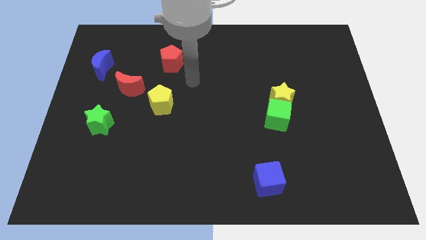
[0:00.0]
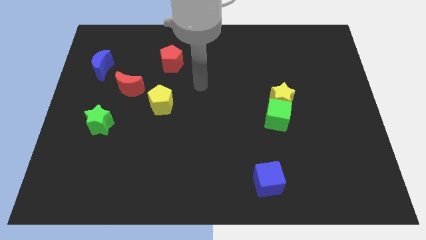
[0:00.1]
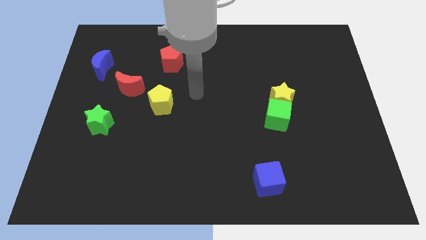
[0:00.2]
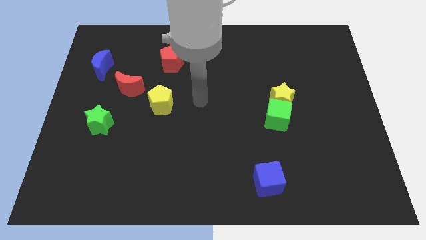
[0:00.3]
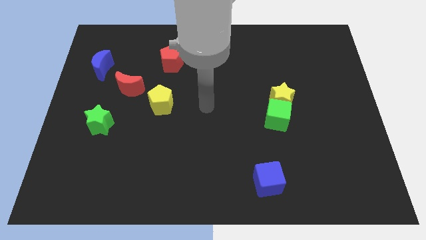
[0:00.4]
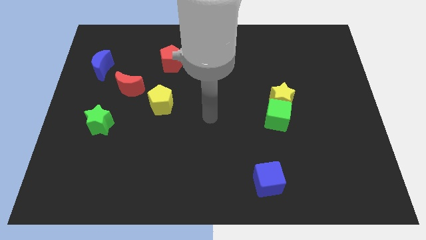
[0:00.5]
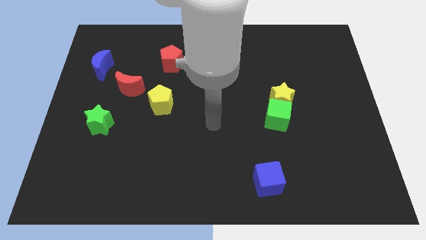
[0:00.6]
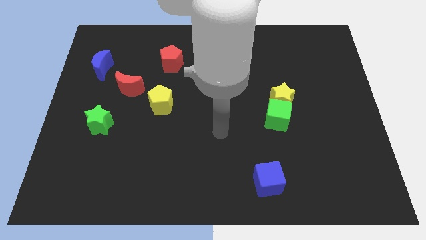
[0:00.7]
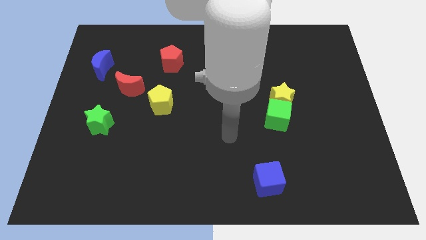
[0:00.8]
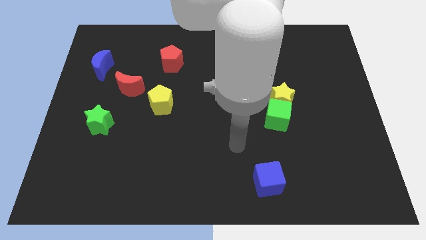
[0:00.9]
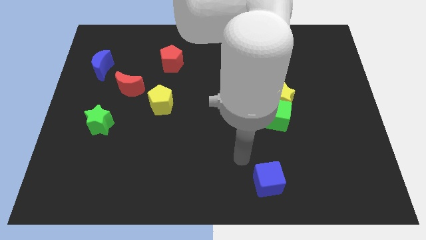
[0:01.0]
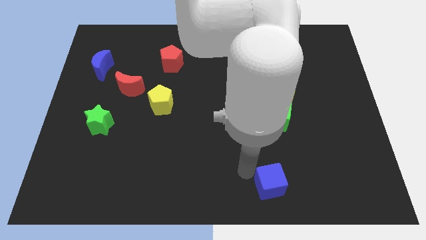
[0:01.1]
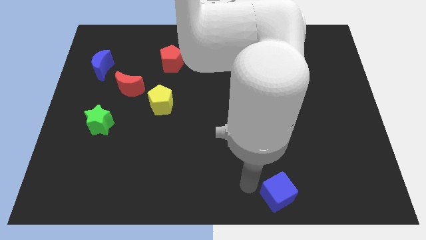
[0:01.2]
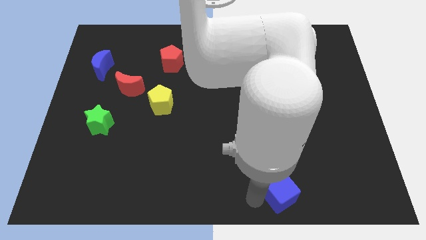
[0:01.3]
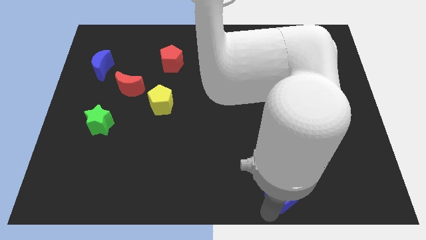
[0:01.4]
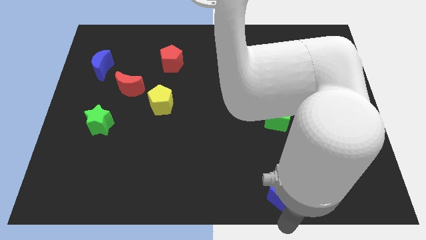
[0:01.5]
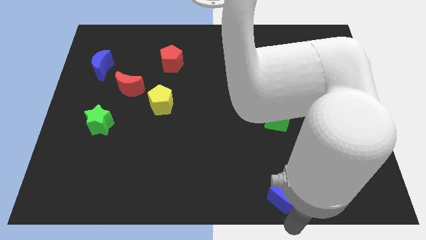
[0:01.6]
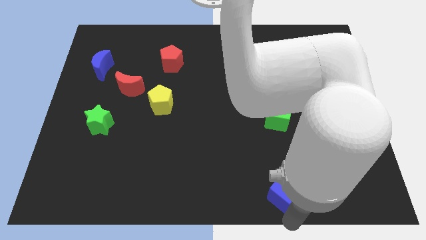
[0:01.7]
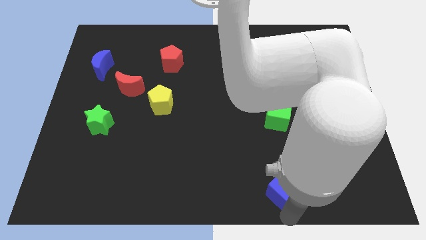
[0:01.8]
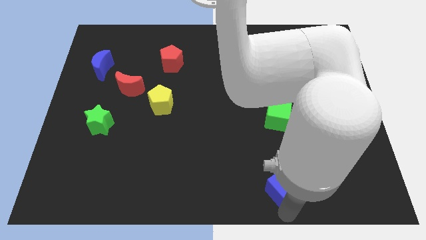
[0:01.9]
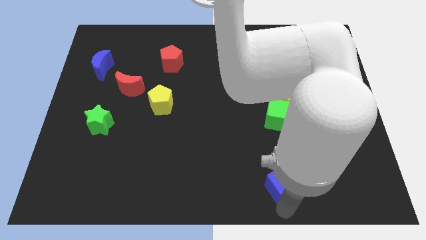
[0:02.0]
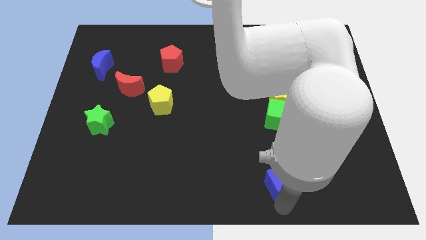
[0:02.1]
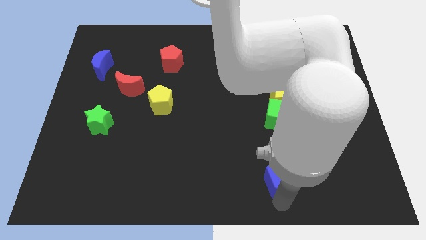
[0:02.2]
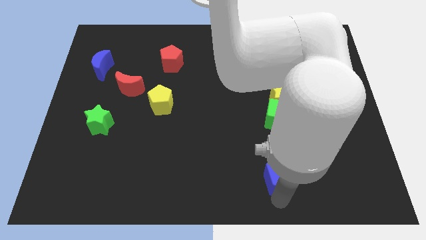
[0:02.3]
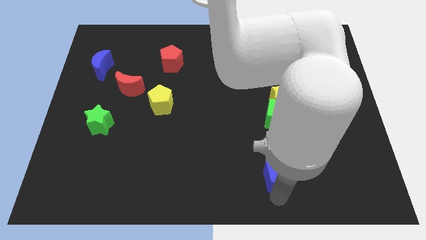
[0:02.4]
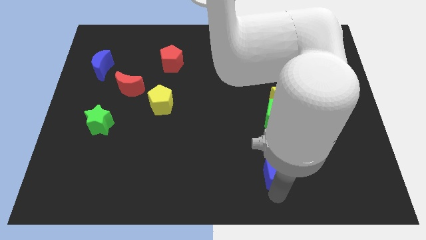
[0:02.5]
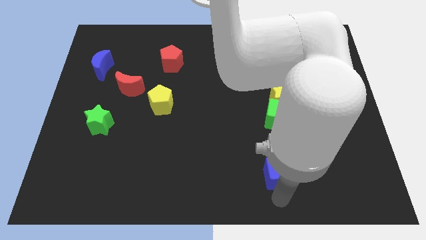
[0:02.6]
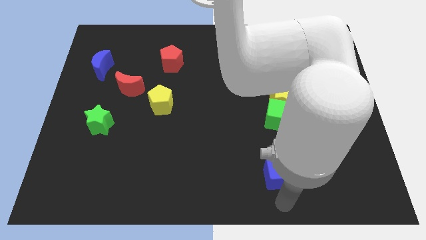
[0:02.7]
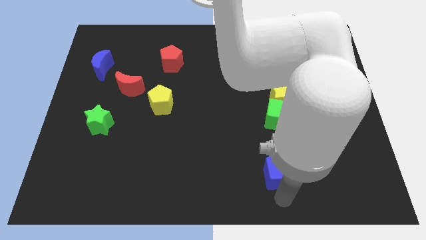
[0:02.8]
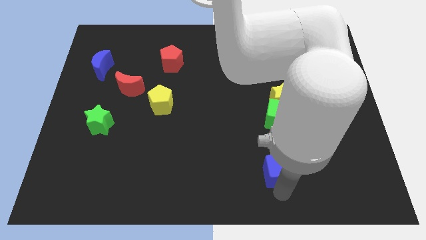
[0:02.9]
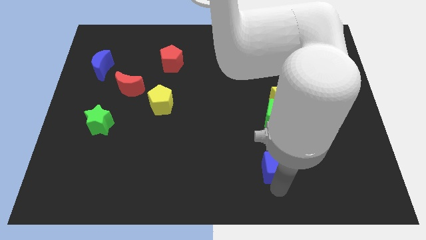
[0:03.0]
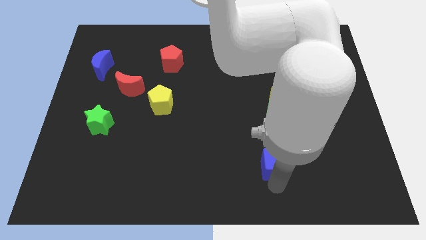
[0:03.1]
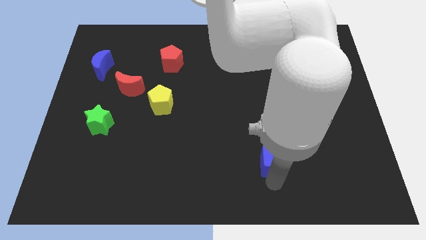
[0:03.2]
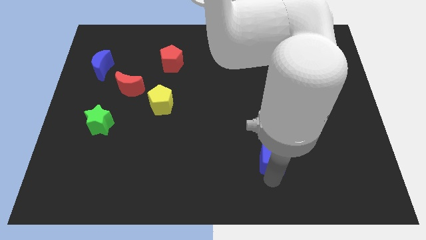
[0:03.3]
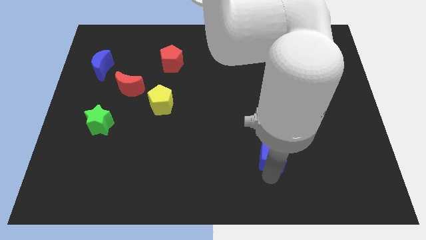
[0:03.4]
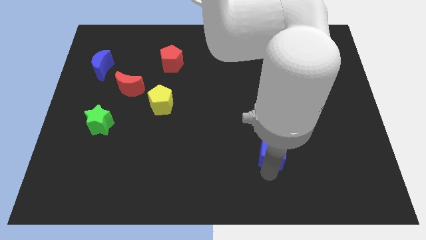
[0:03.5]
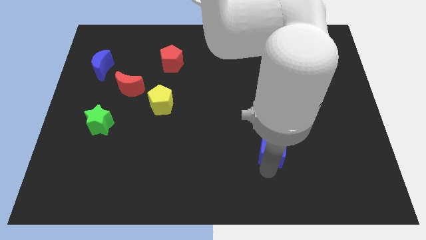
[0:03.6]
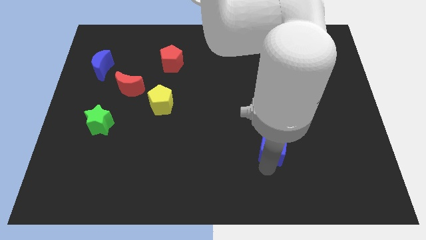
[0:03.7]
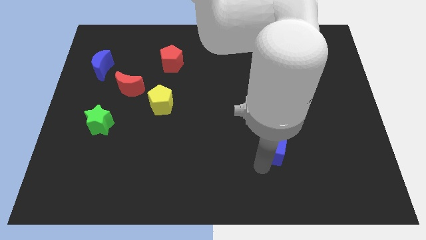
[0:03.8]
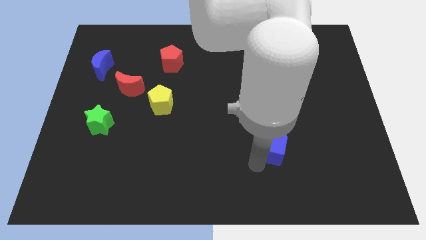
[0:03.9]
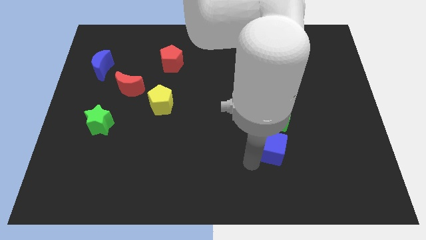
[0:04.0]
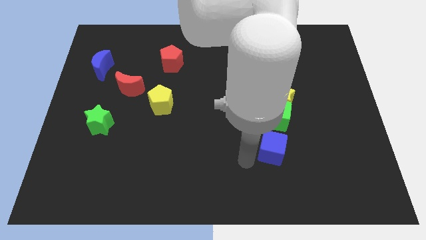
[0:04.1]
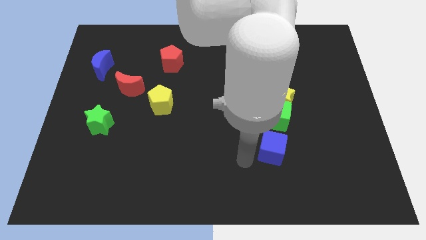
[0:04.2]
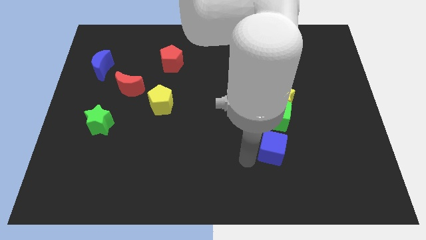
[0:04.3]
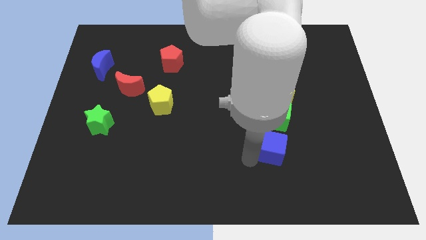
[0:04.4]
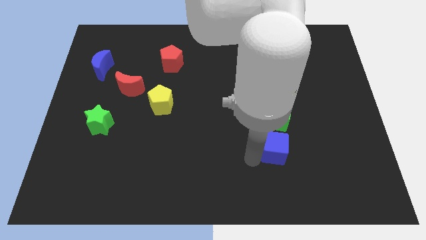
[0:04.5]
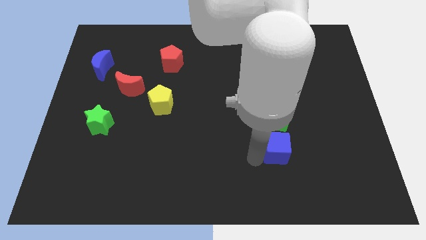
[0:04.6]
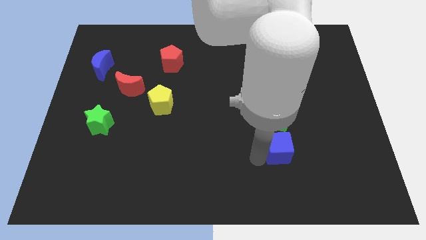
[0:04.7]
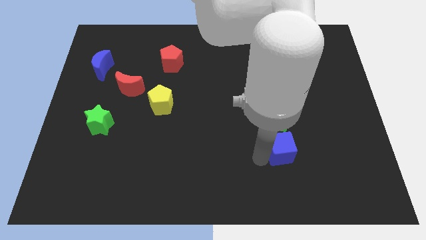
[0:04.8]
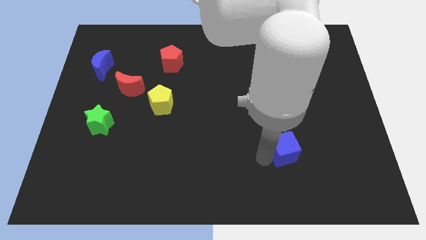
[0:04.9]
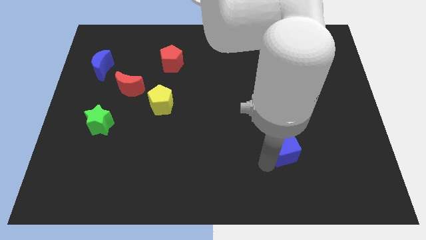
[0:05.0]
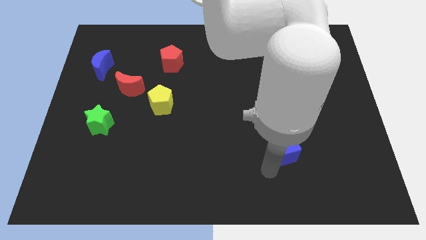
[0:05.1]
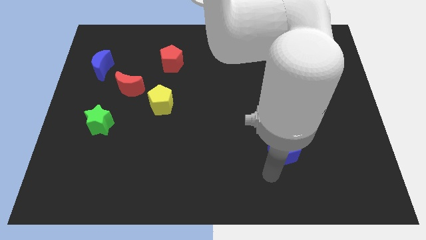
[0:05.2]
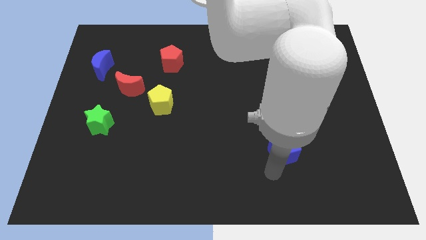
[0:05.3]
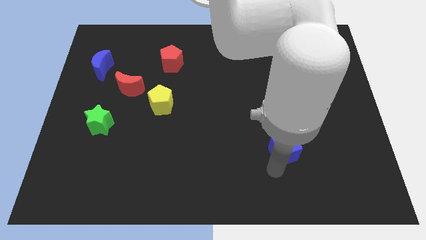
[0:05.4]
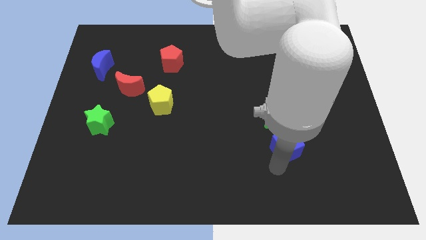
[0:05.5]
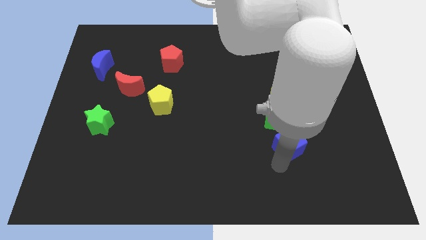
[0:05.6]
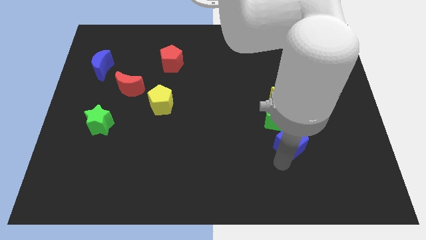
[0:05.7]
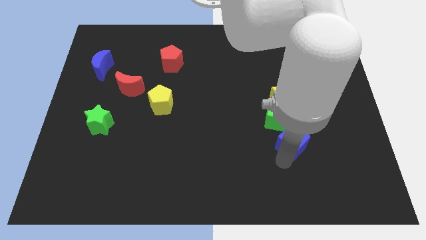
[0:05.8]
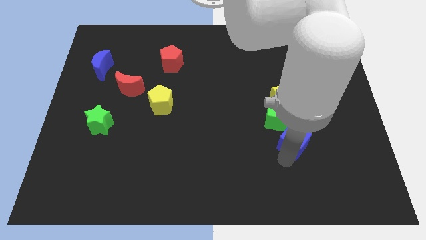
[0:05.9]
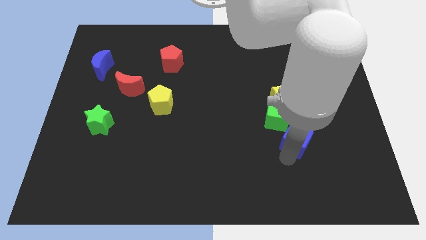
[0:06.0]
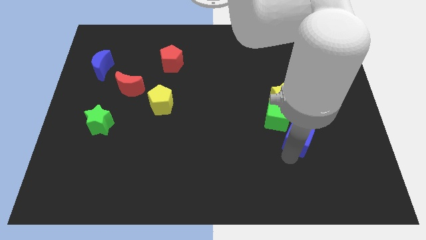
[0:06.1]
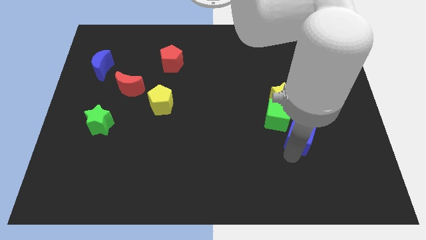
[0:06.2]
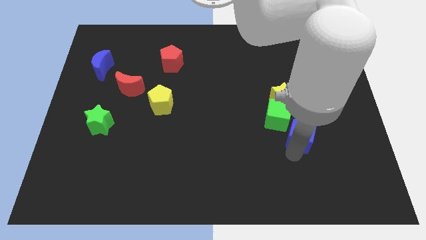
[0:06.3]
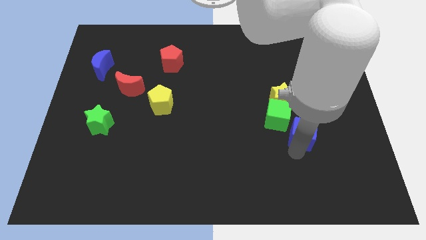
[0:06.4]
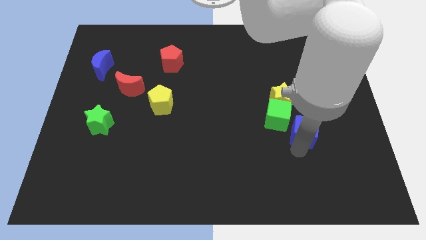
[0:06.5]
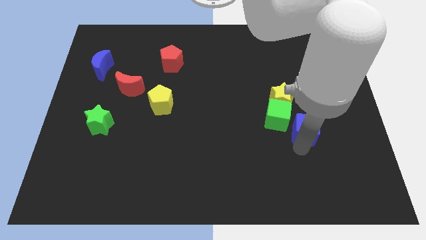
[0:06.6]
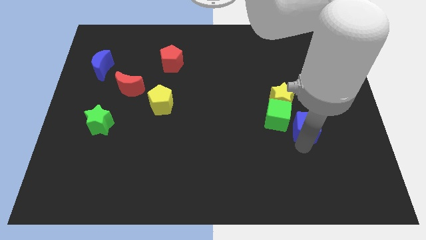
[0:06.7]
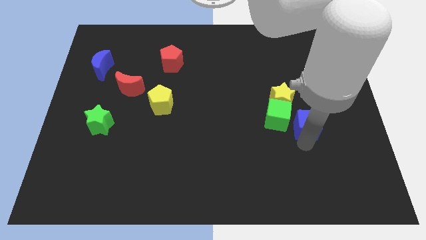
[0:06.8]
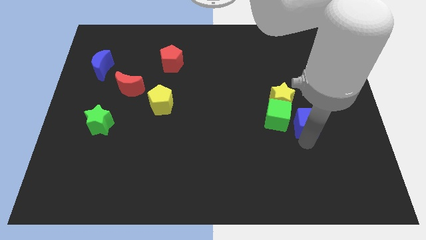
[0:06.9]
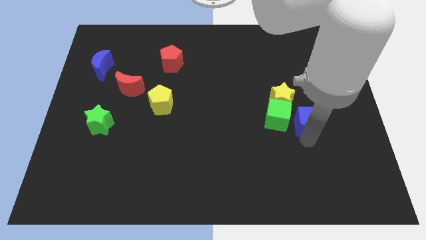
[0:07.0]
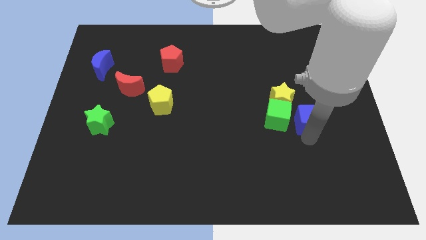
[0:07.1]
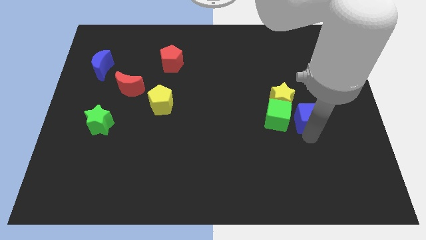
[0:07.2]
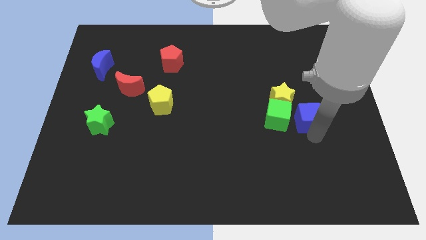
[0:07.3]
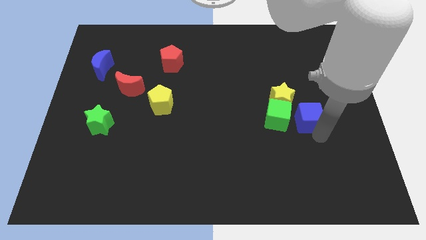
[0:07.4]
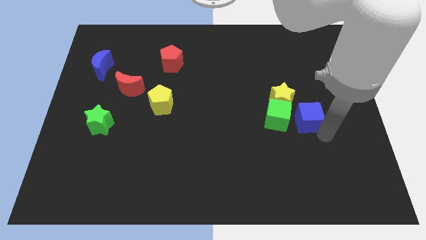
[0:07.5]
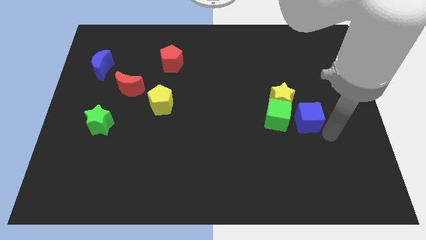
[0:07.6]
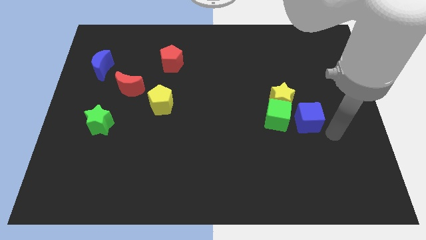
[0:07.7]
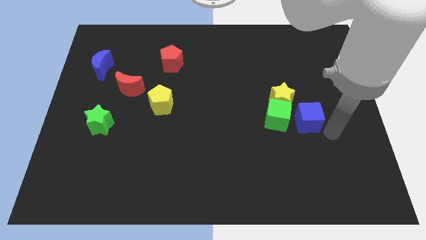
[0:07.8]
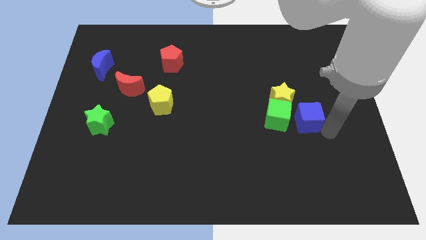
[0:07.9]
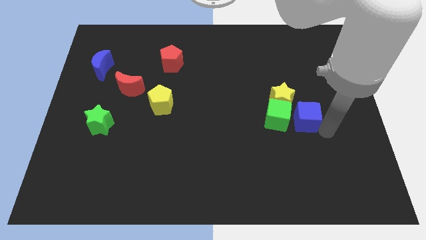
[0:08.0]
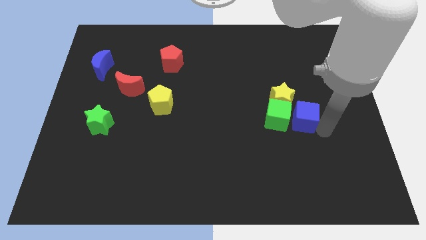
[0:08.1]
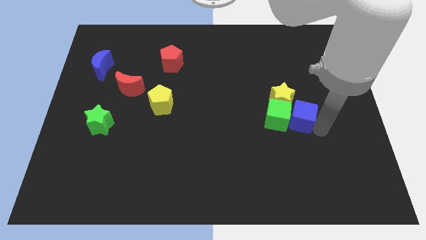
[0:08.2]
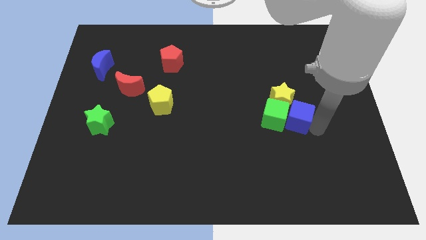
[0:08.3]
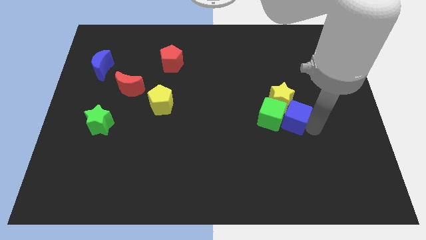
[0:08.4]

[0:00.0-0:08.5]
push the blue cube to the yellow star
